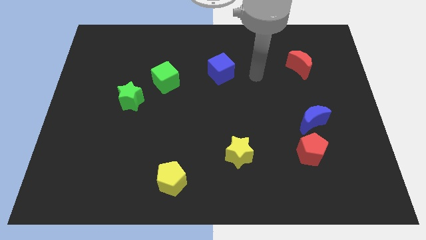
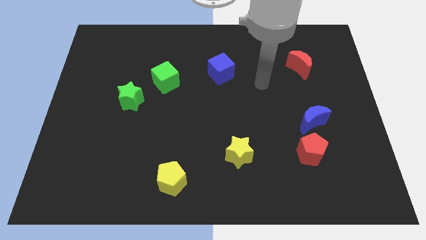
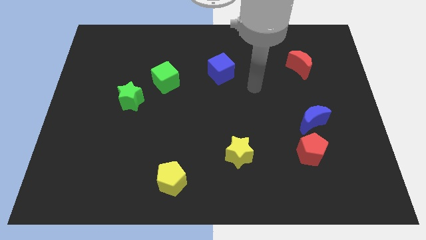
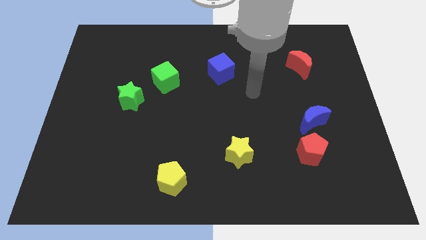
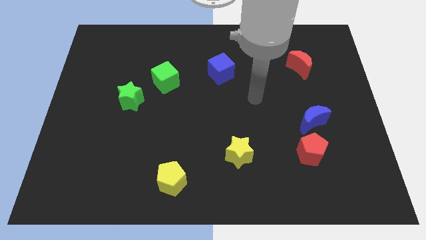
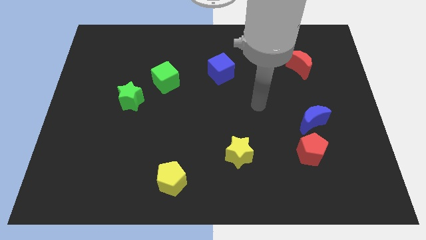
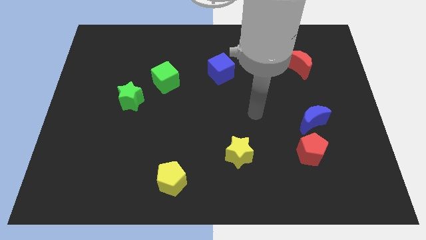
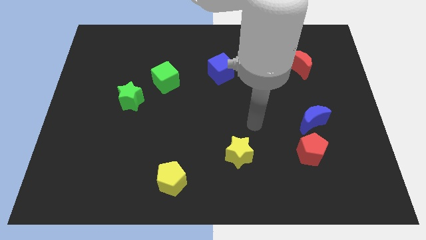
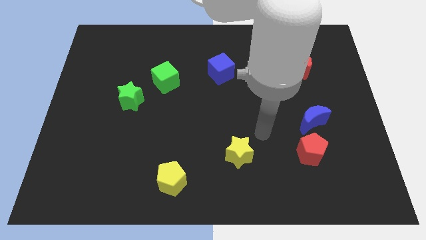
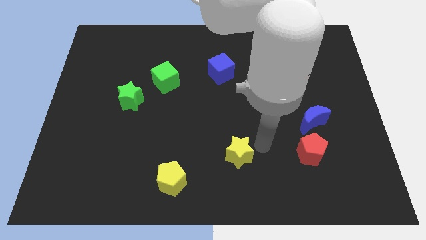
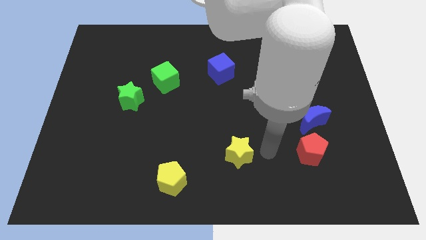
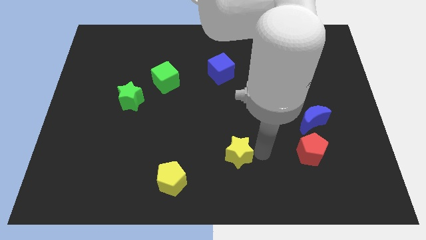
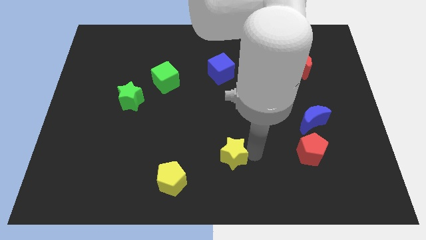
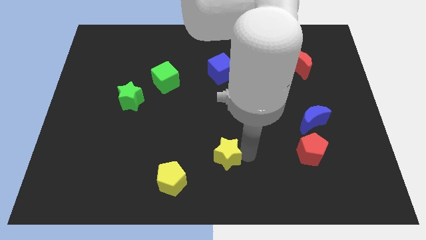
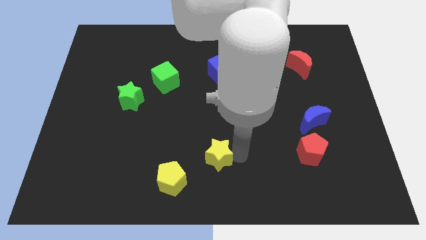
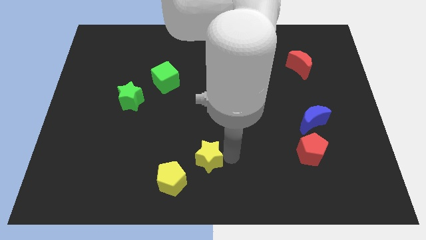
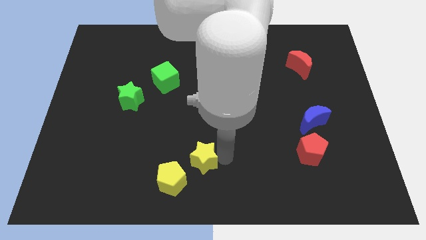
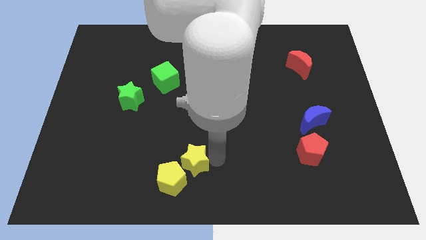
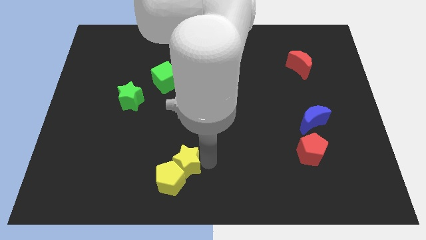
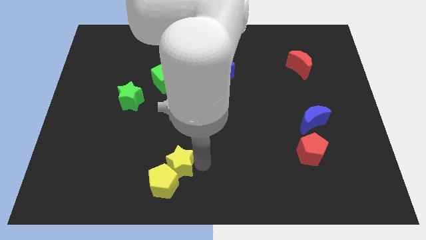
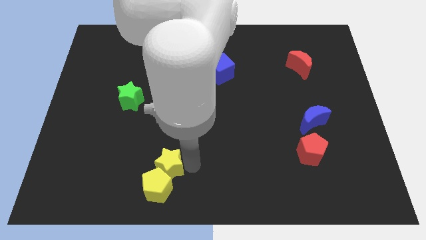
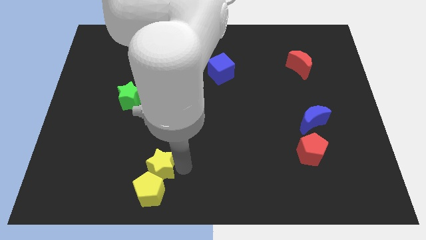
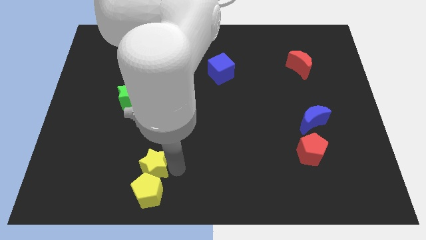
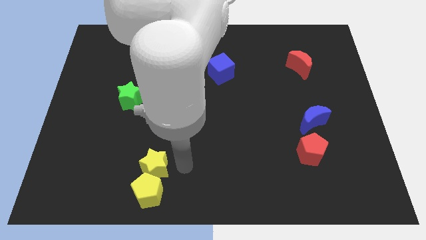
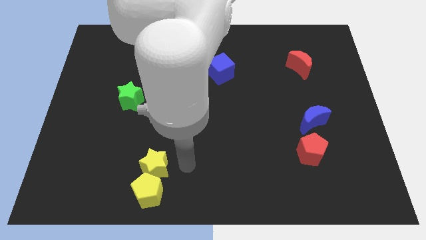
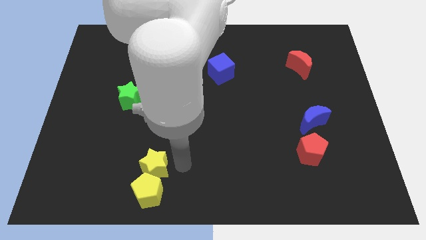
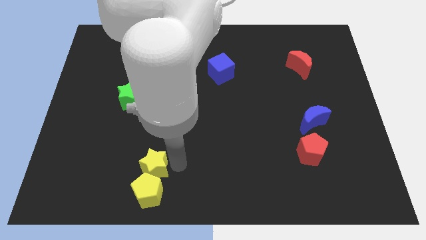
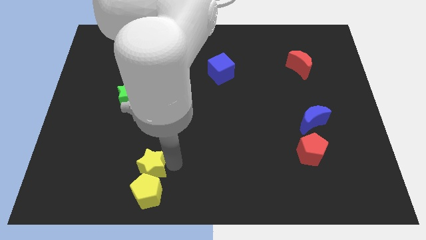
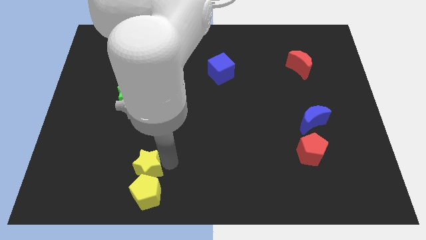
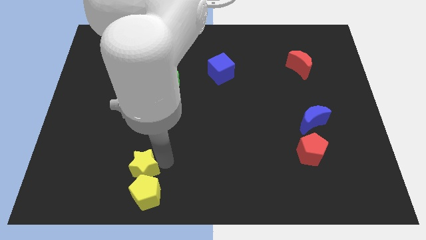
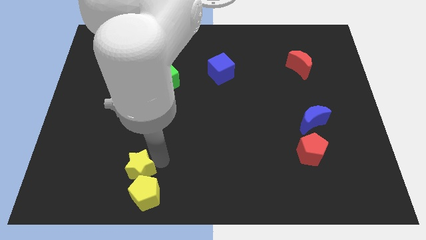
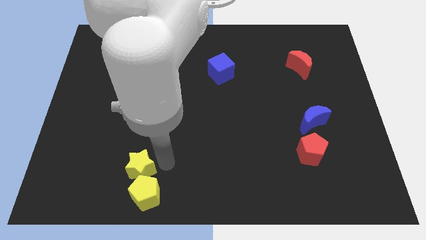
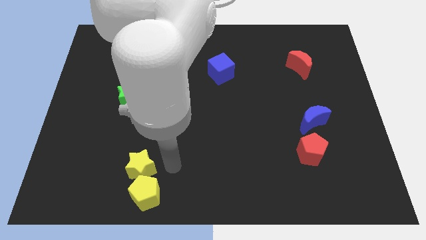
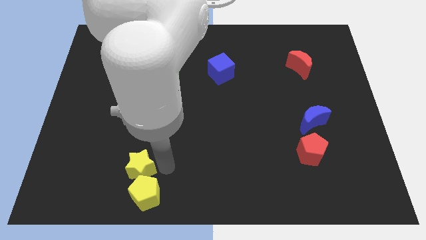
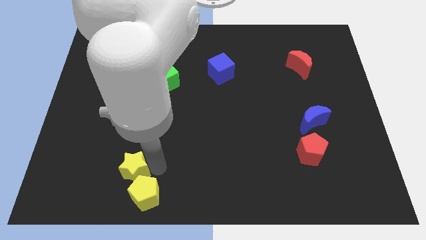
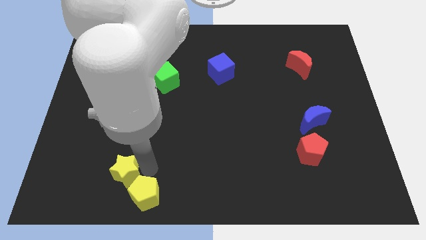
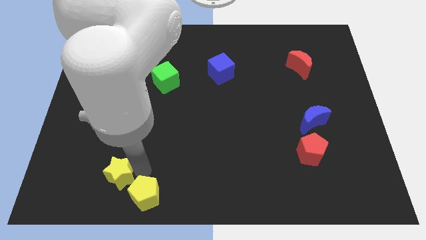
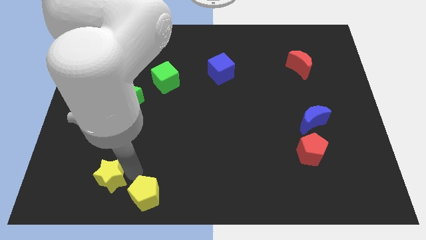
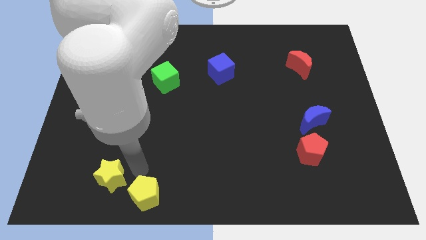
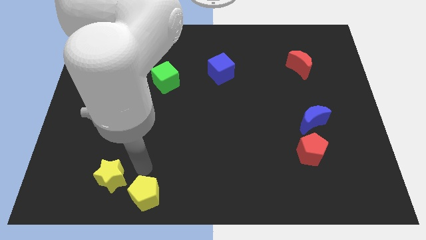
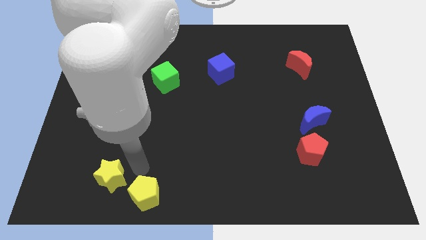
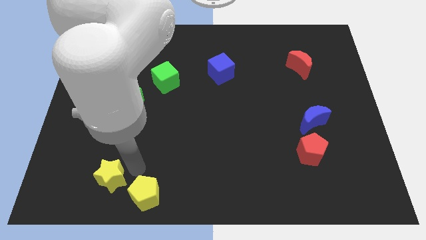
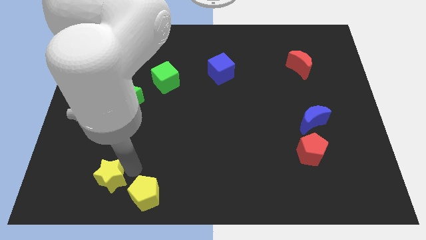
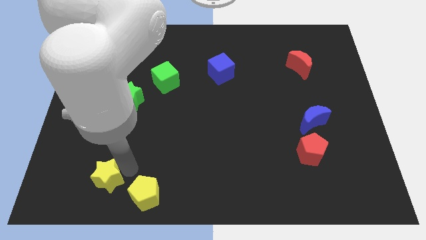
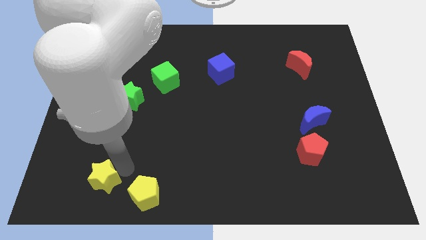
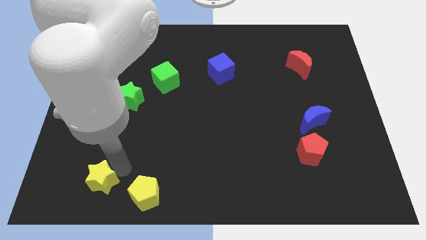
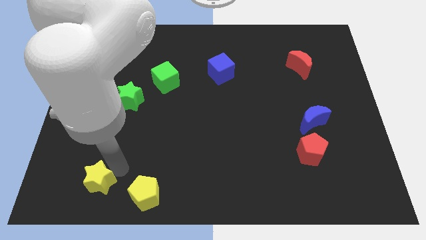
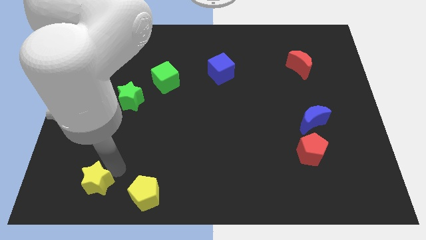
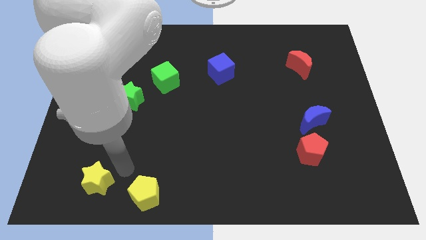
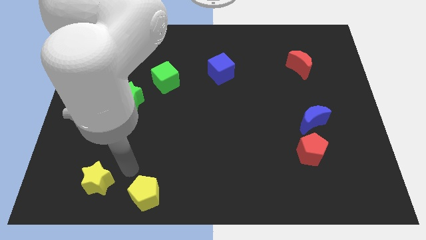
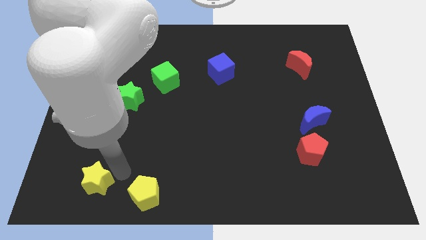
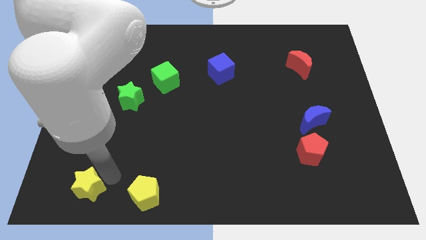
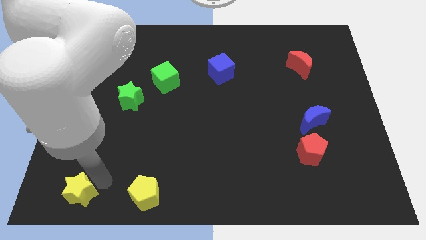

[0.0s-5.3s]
put the yellow star to the lower left corner
